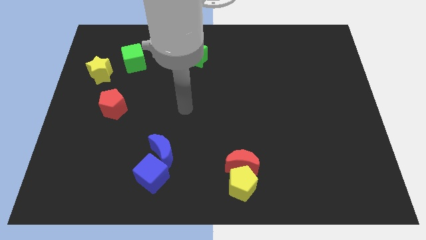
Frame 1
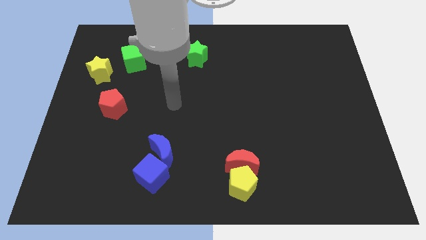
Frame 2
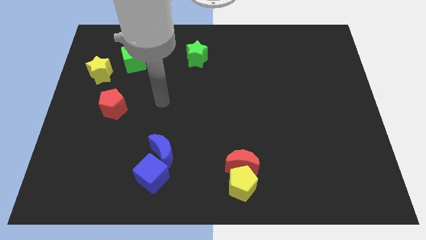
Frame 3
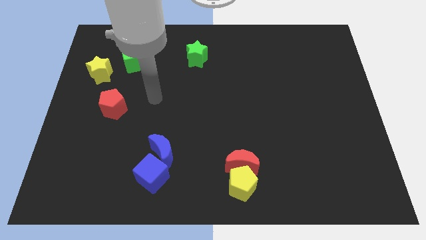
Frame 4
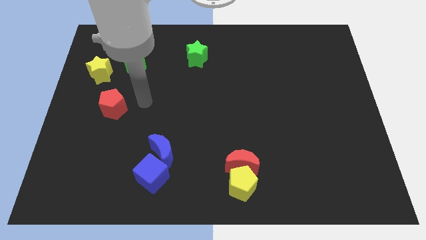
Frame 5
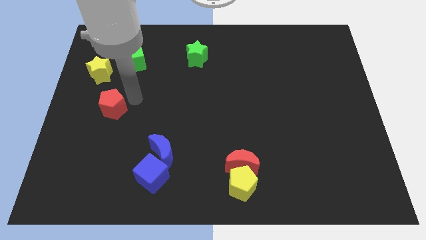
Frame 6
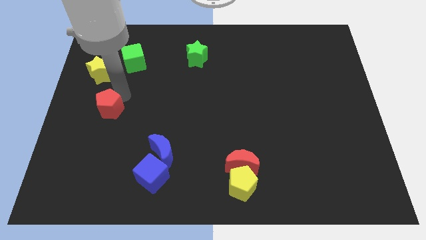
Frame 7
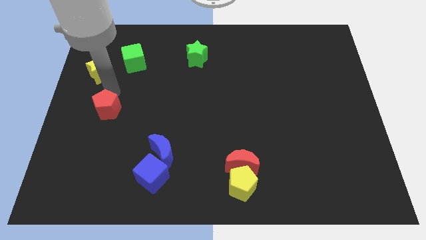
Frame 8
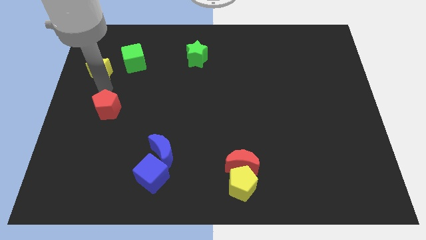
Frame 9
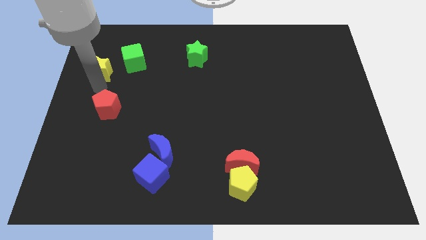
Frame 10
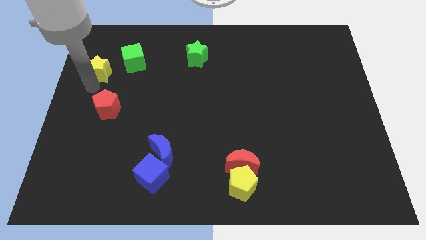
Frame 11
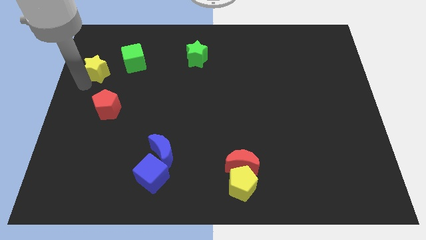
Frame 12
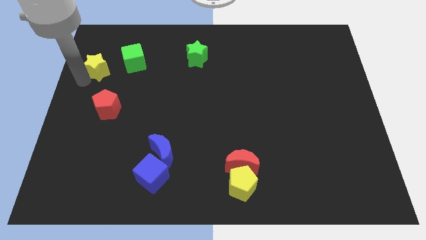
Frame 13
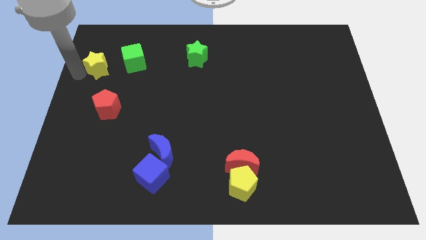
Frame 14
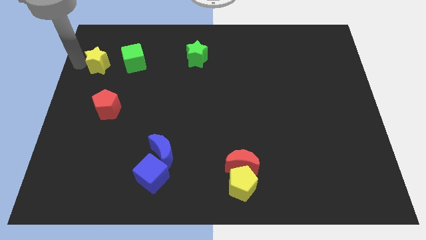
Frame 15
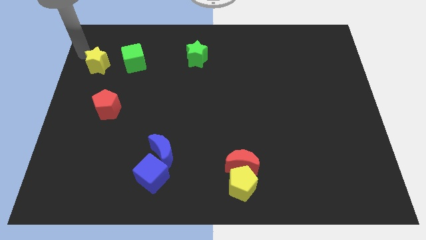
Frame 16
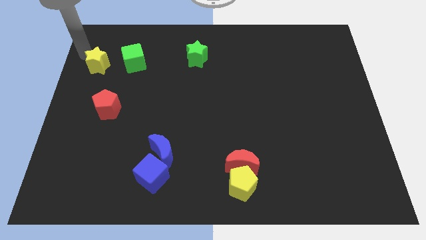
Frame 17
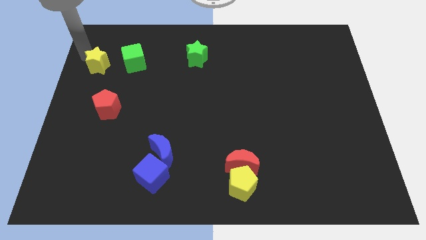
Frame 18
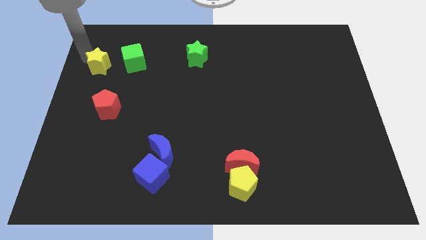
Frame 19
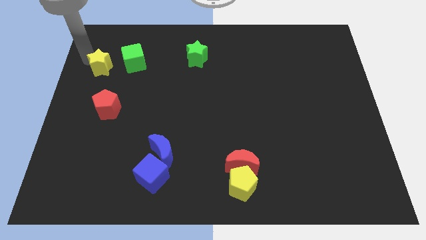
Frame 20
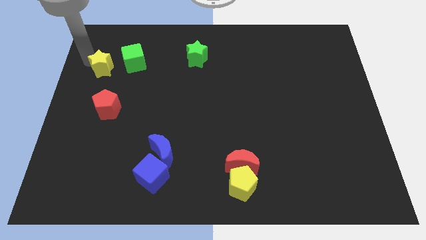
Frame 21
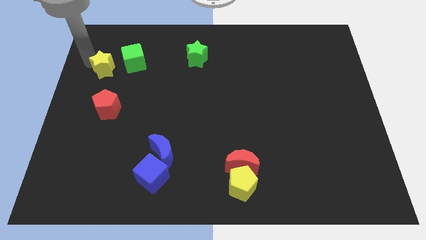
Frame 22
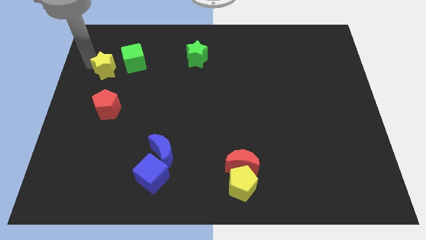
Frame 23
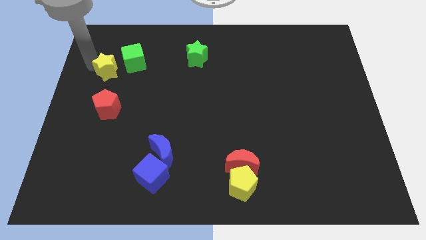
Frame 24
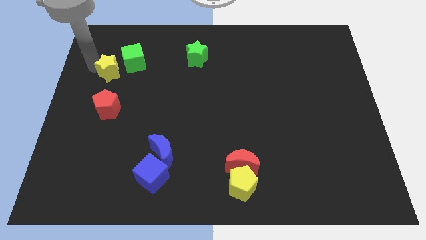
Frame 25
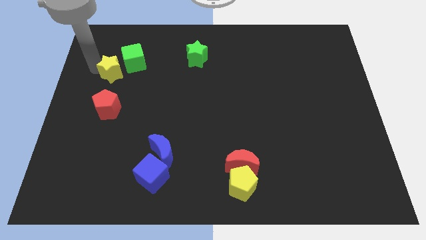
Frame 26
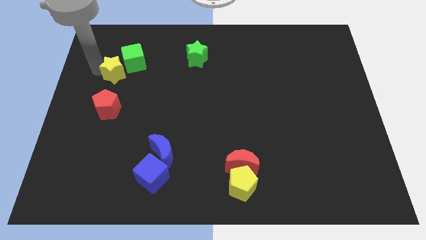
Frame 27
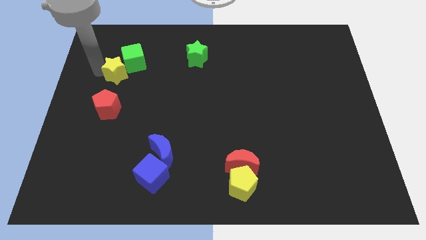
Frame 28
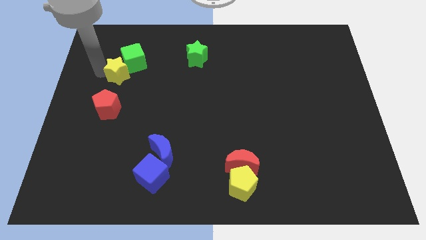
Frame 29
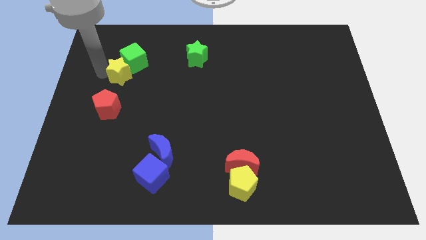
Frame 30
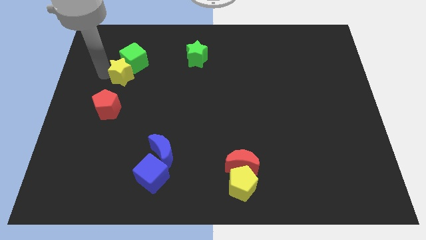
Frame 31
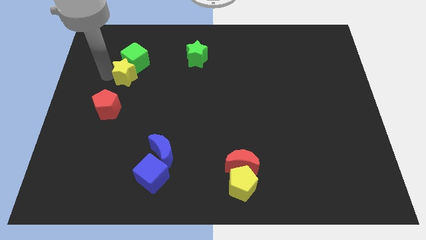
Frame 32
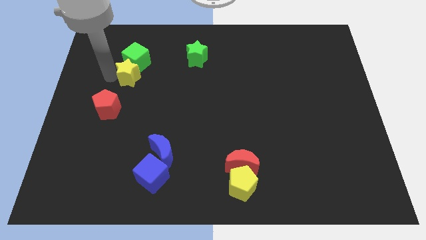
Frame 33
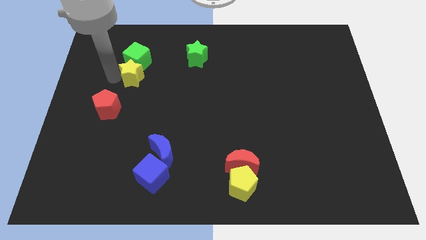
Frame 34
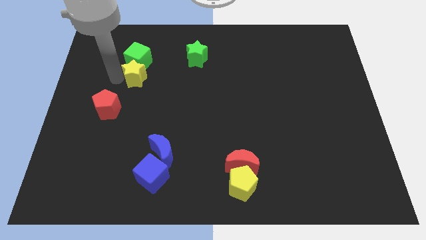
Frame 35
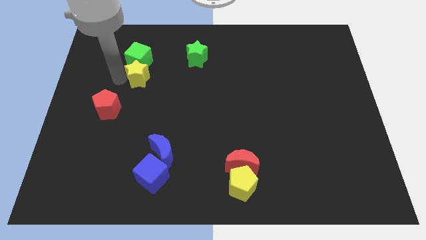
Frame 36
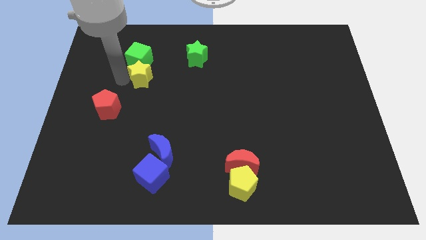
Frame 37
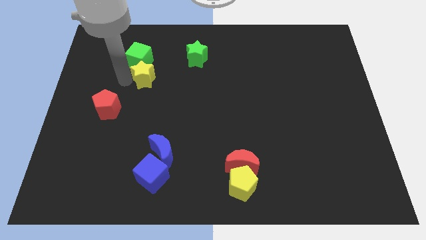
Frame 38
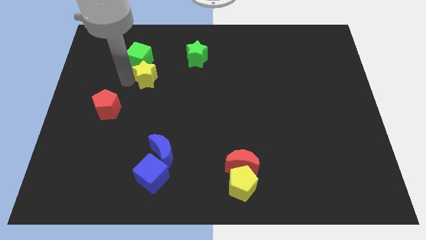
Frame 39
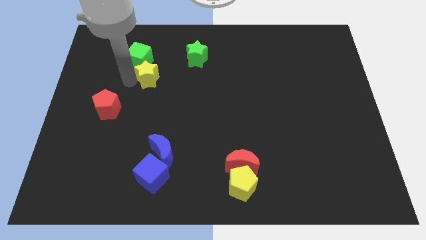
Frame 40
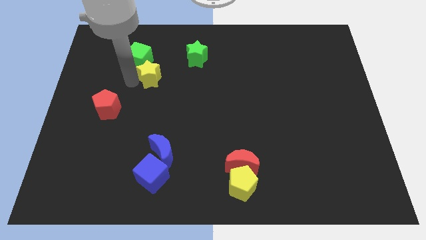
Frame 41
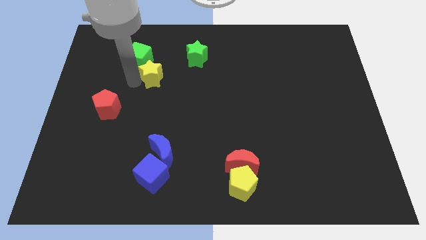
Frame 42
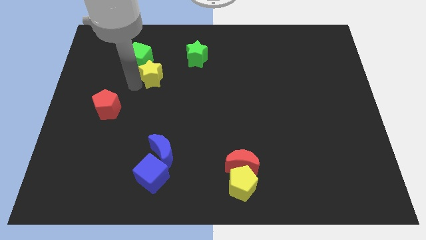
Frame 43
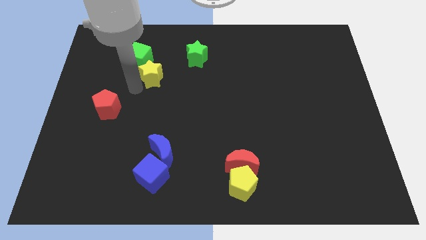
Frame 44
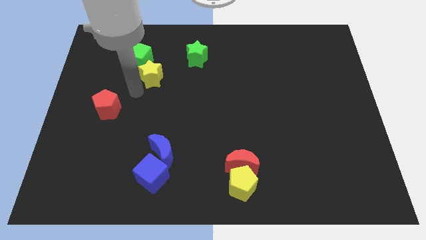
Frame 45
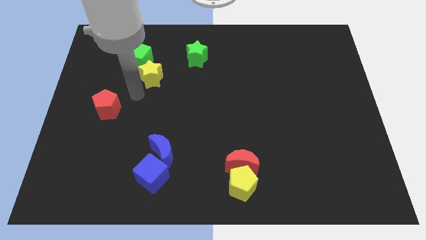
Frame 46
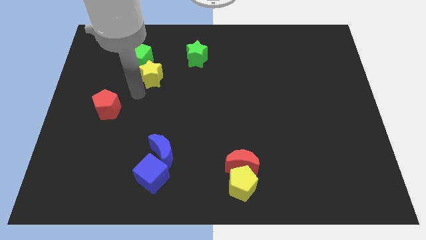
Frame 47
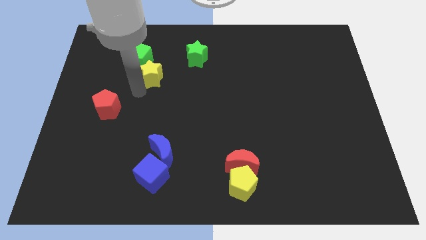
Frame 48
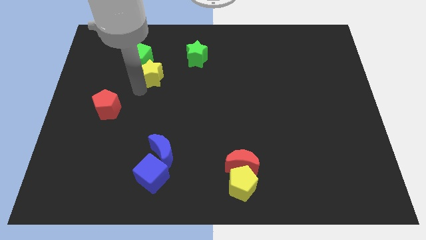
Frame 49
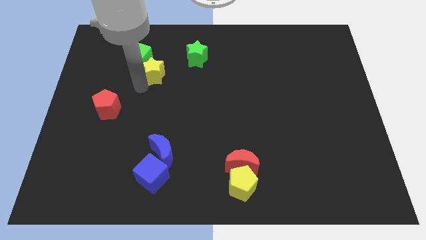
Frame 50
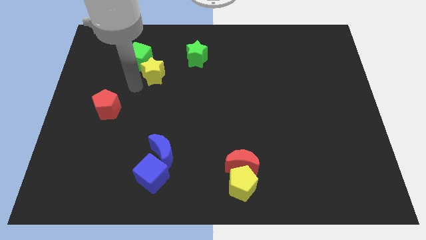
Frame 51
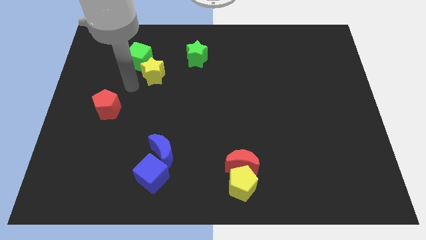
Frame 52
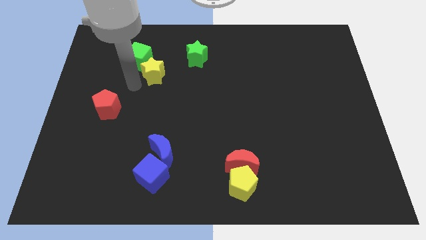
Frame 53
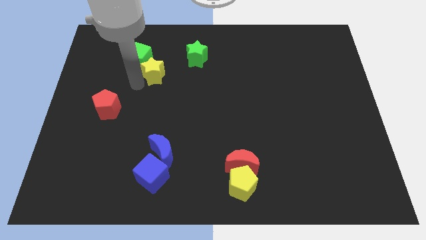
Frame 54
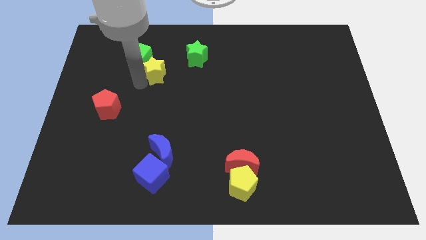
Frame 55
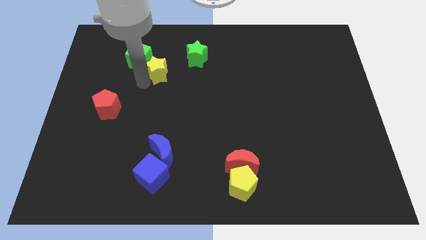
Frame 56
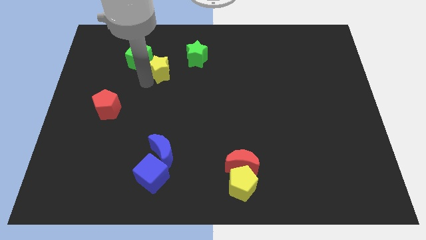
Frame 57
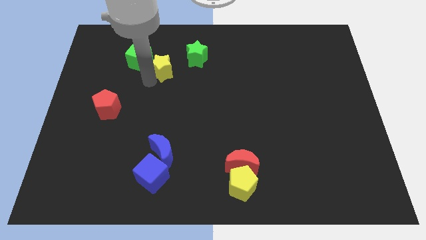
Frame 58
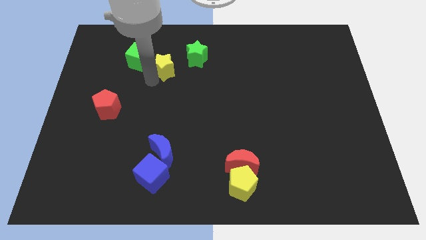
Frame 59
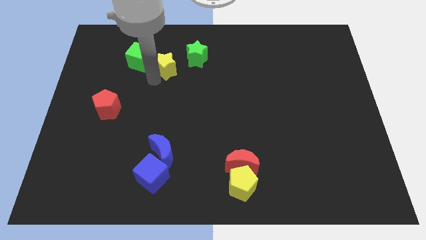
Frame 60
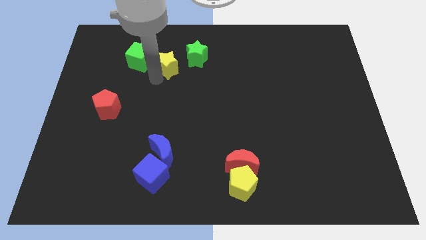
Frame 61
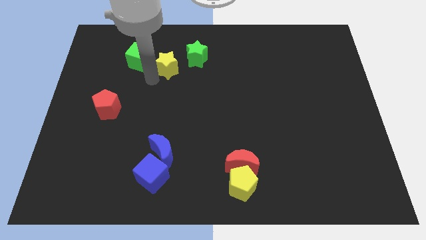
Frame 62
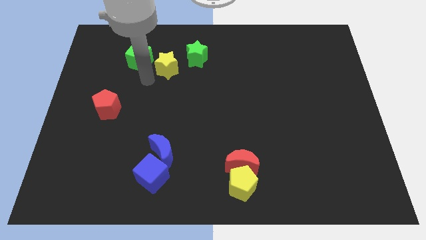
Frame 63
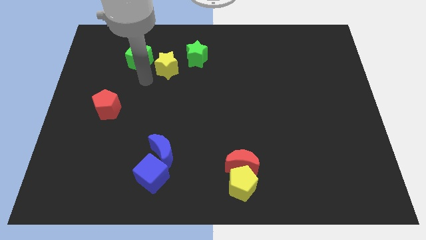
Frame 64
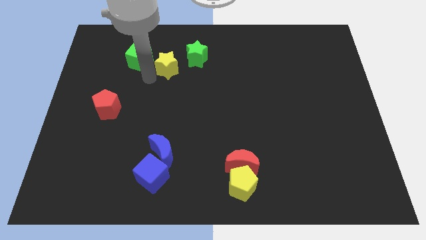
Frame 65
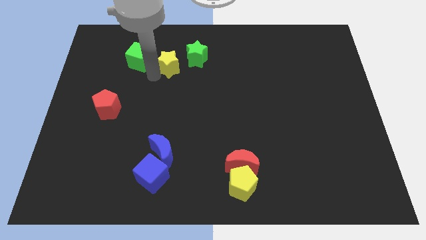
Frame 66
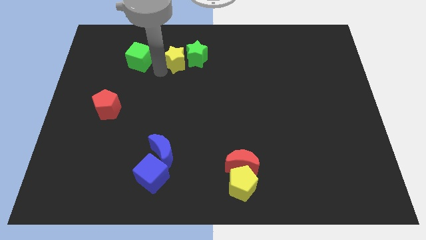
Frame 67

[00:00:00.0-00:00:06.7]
push the yellow star towards the green star

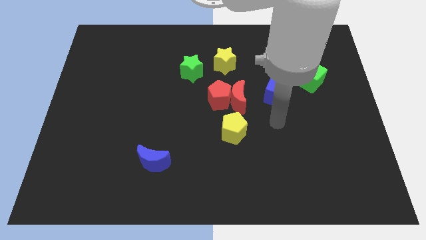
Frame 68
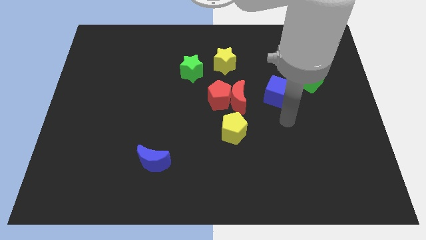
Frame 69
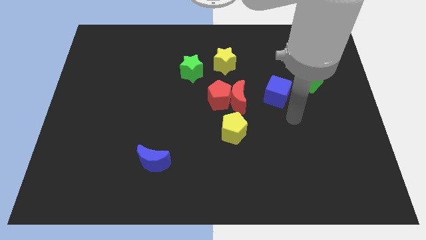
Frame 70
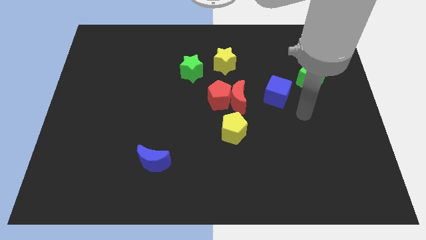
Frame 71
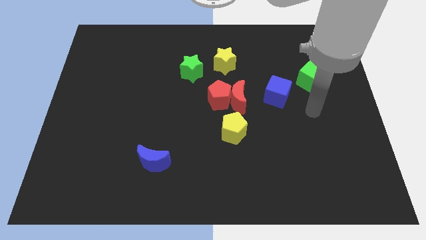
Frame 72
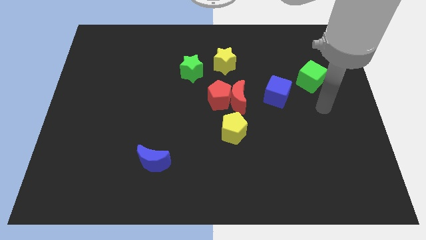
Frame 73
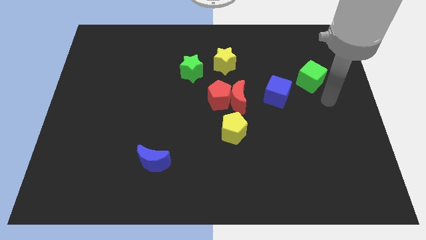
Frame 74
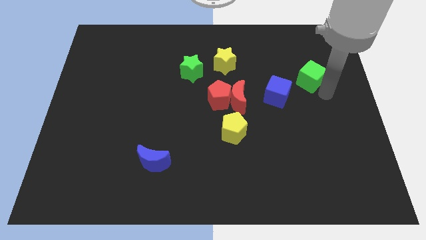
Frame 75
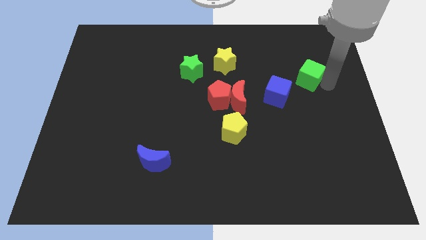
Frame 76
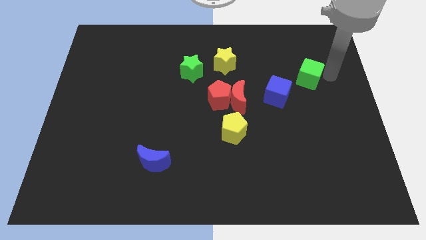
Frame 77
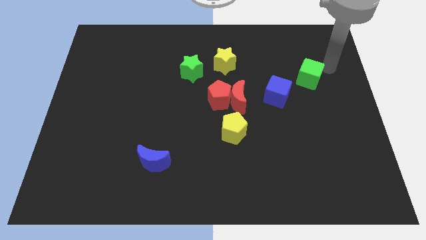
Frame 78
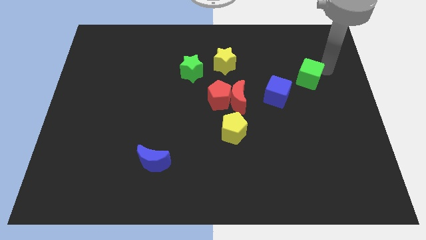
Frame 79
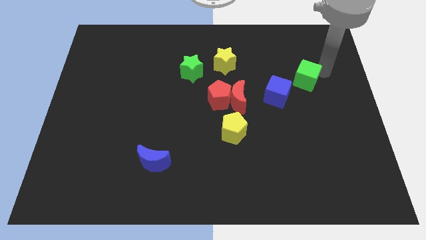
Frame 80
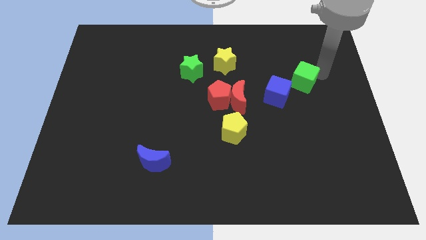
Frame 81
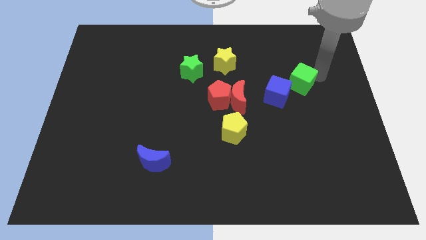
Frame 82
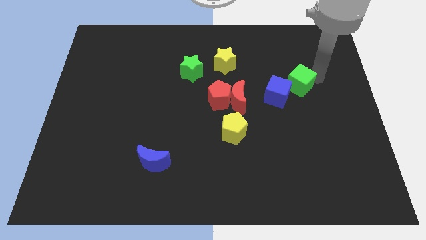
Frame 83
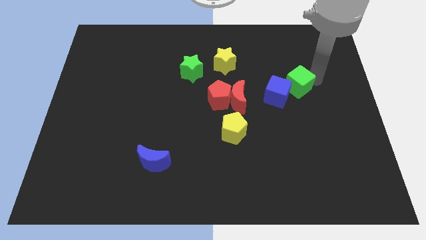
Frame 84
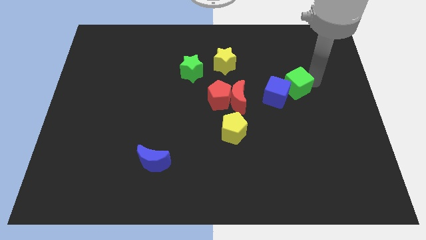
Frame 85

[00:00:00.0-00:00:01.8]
push the green cube towards the blue cube
